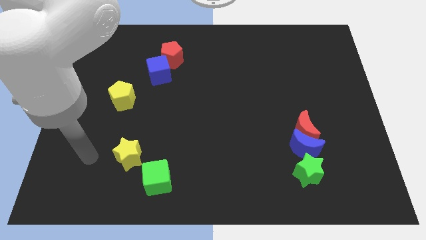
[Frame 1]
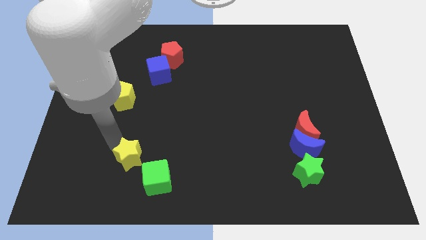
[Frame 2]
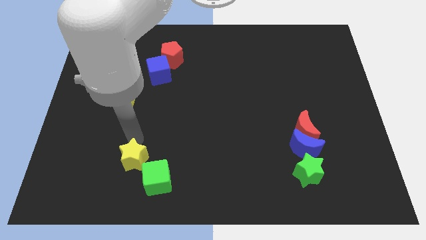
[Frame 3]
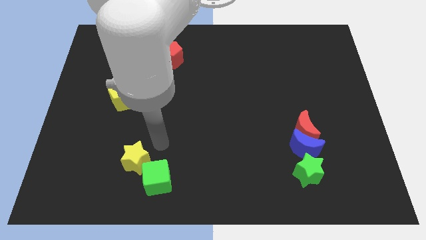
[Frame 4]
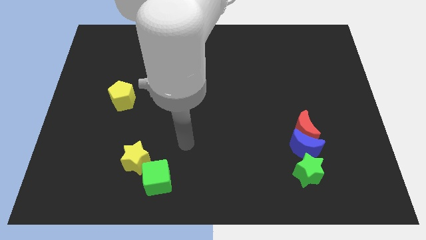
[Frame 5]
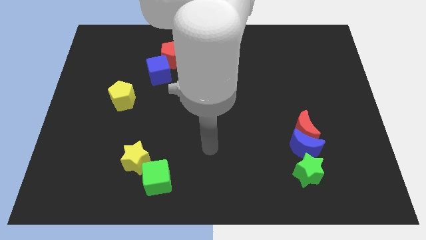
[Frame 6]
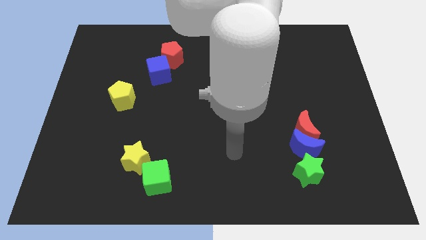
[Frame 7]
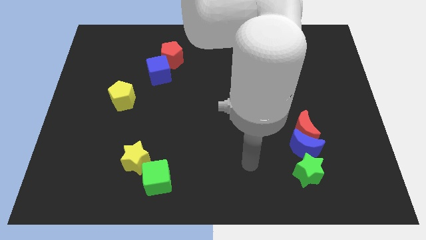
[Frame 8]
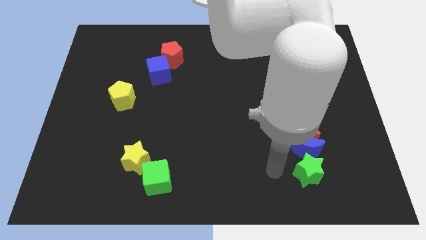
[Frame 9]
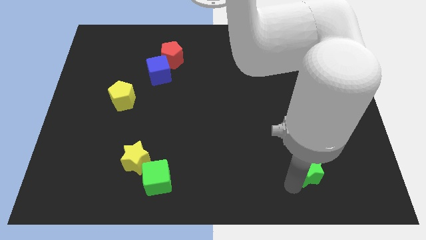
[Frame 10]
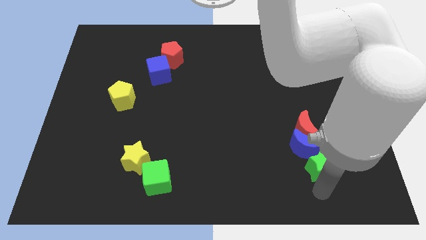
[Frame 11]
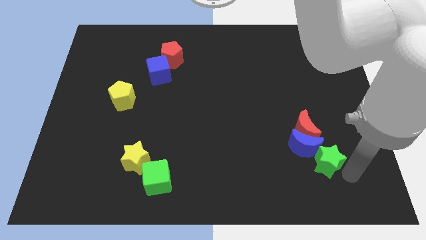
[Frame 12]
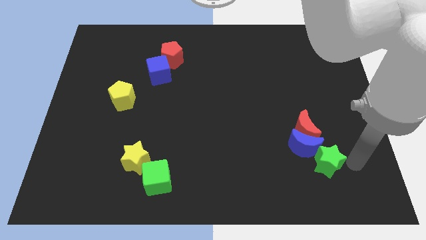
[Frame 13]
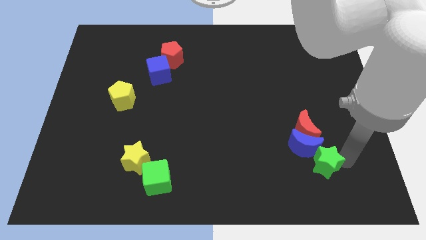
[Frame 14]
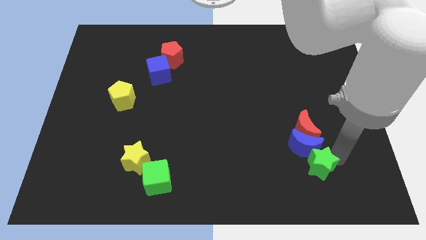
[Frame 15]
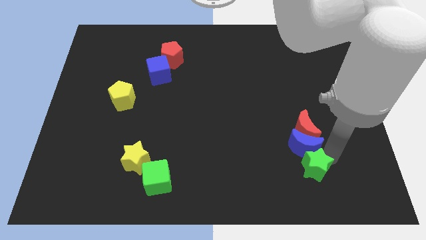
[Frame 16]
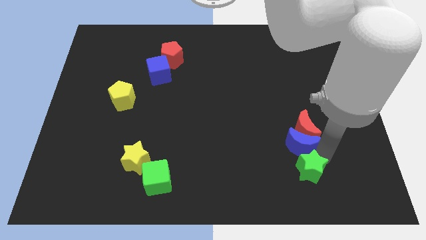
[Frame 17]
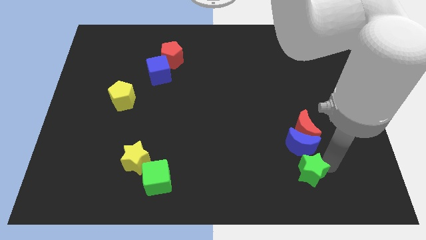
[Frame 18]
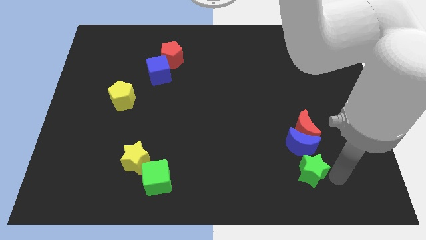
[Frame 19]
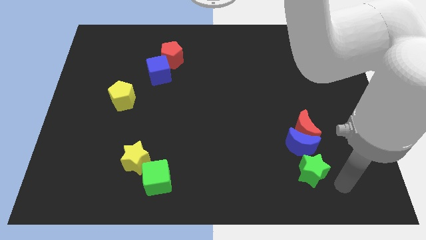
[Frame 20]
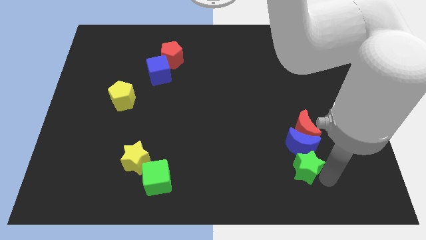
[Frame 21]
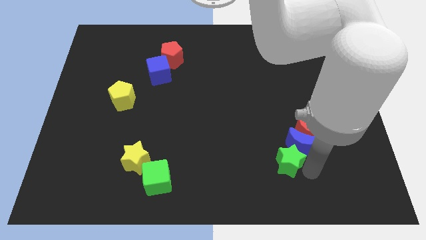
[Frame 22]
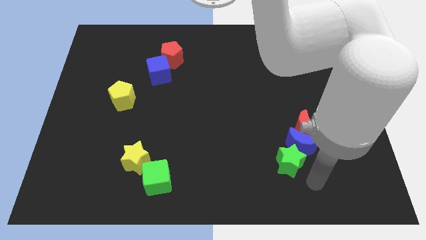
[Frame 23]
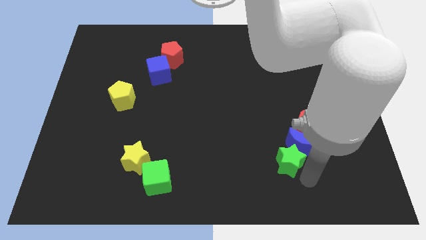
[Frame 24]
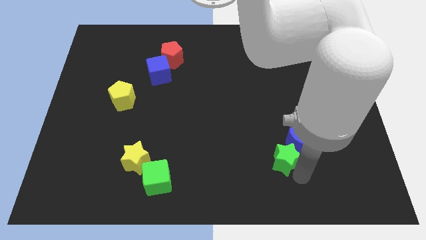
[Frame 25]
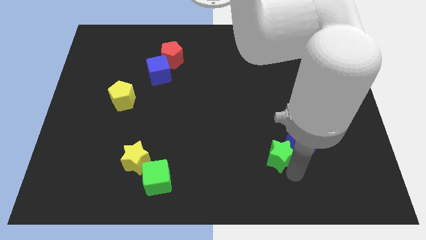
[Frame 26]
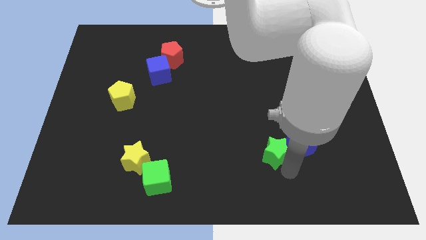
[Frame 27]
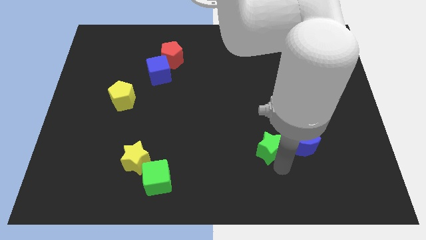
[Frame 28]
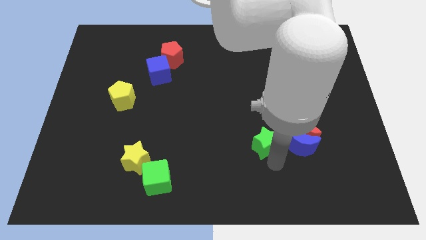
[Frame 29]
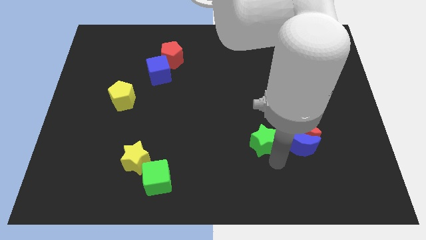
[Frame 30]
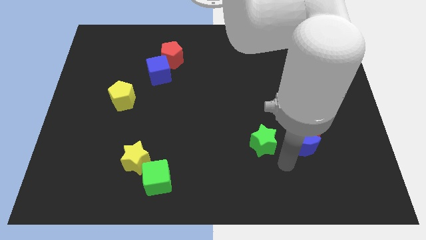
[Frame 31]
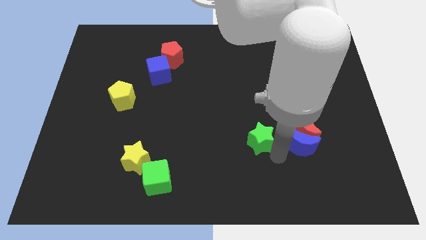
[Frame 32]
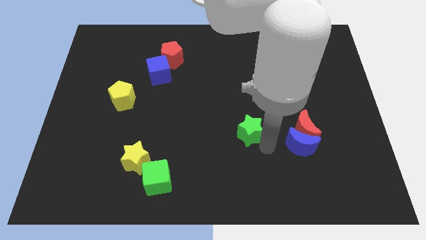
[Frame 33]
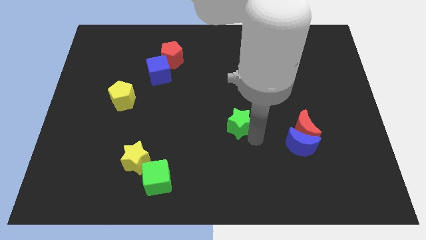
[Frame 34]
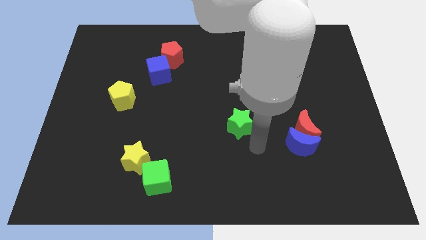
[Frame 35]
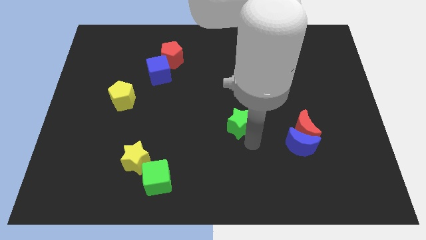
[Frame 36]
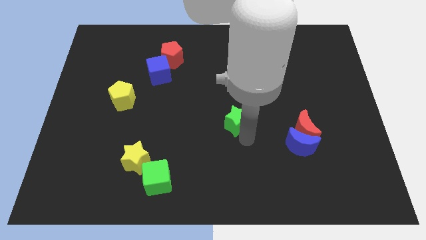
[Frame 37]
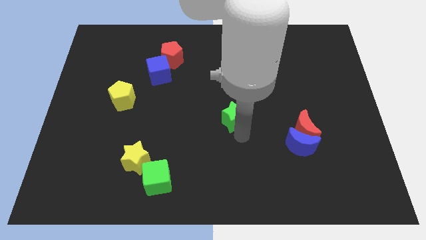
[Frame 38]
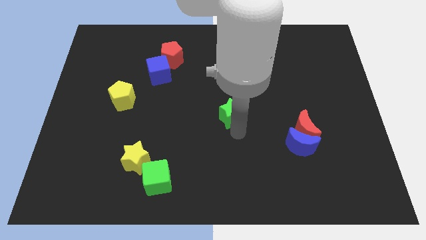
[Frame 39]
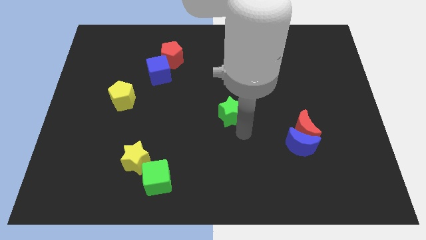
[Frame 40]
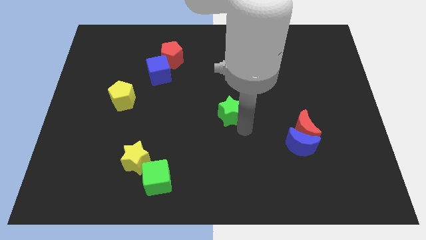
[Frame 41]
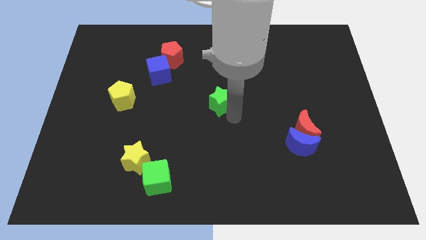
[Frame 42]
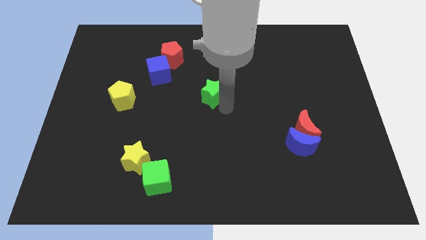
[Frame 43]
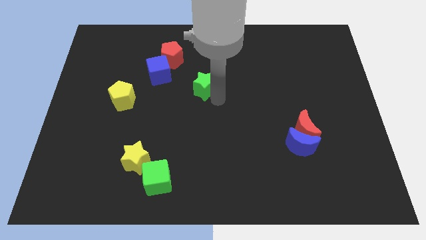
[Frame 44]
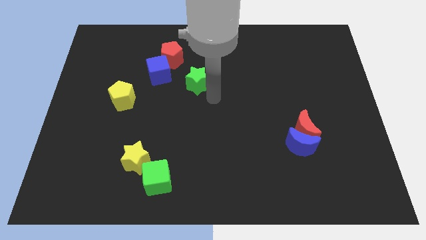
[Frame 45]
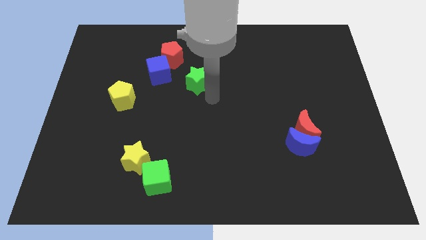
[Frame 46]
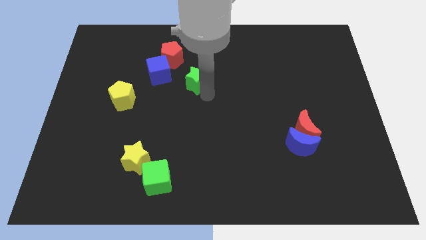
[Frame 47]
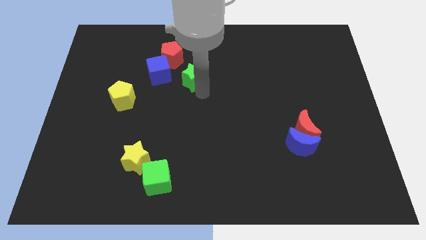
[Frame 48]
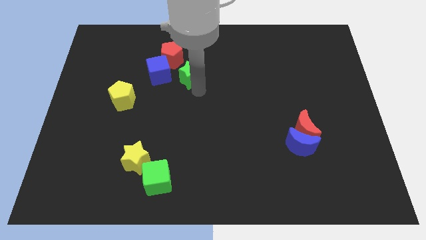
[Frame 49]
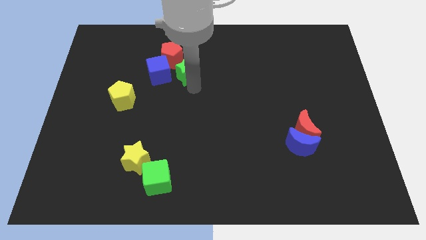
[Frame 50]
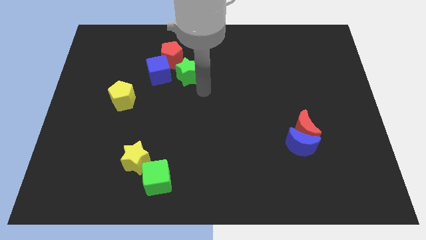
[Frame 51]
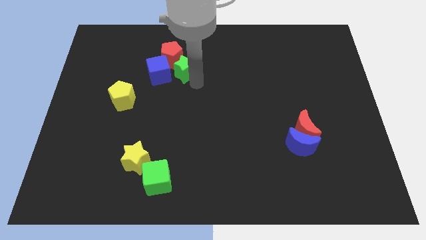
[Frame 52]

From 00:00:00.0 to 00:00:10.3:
move the green star towards the red pentagon

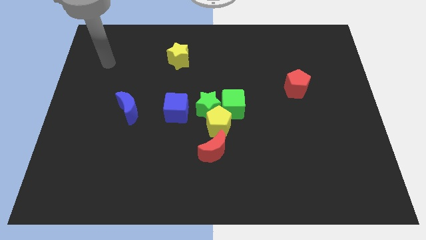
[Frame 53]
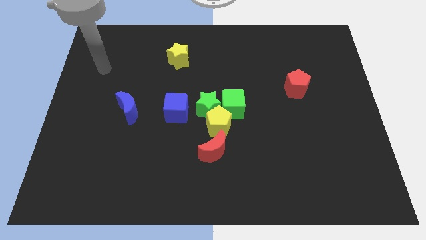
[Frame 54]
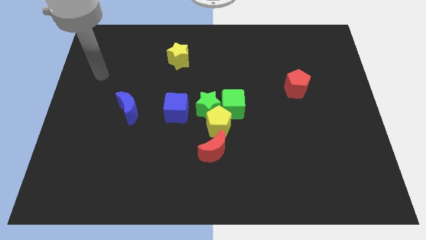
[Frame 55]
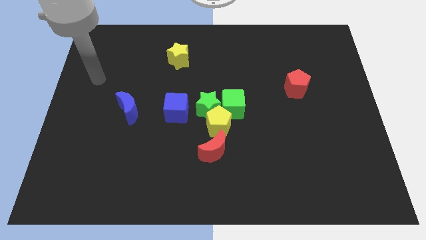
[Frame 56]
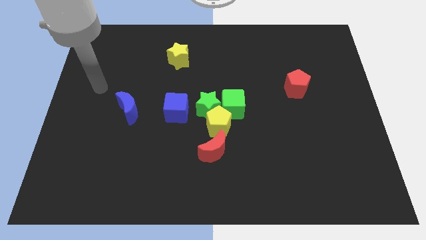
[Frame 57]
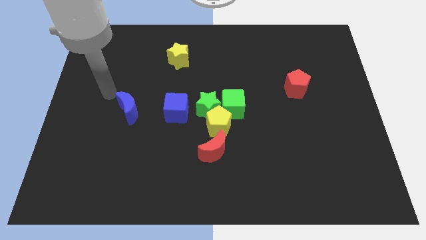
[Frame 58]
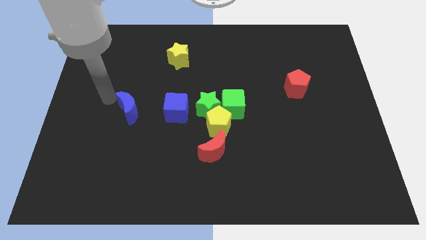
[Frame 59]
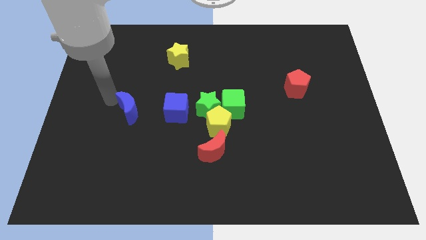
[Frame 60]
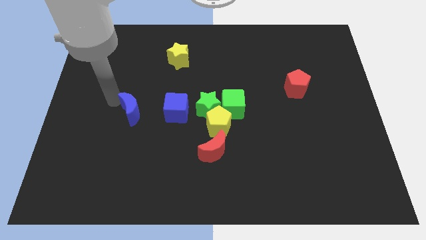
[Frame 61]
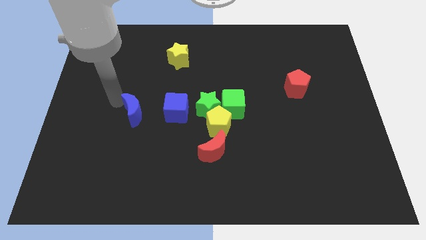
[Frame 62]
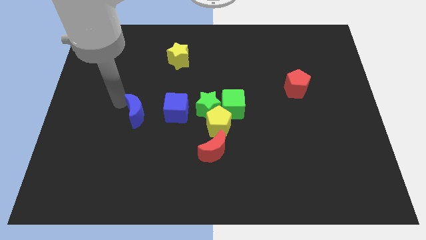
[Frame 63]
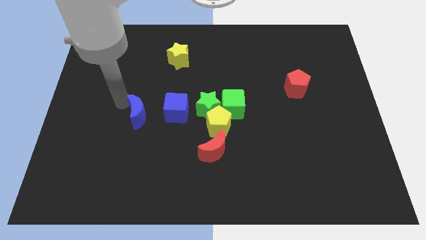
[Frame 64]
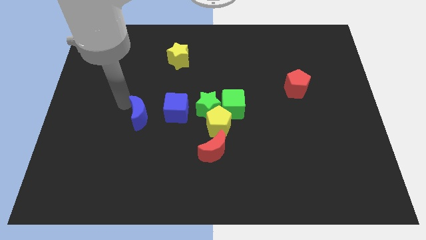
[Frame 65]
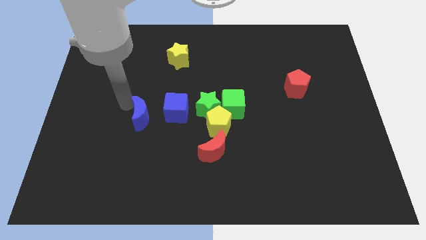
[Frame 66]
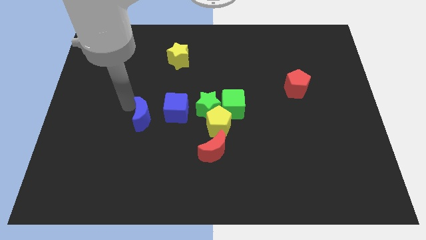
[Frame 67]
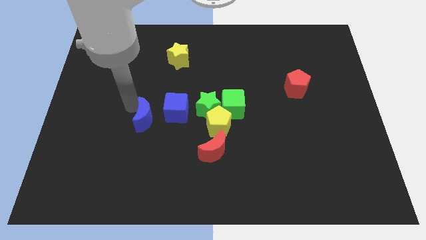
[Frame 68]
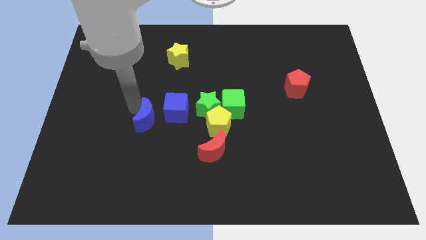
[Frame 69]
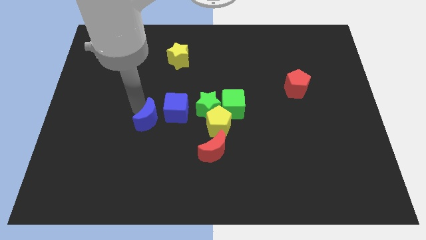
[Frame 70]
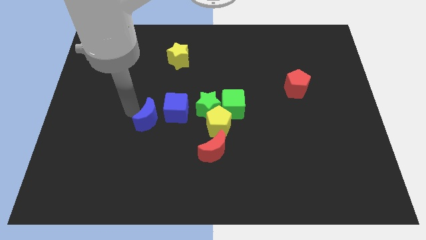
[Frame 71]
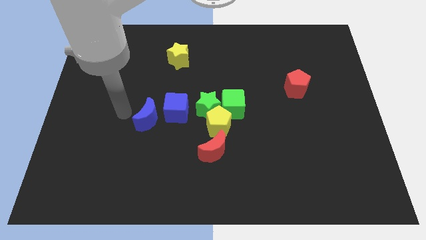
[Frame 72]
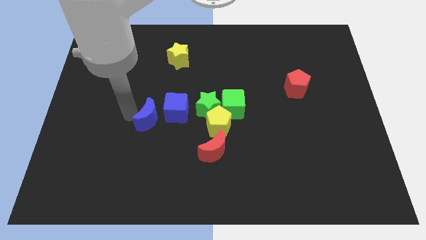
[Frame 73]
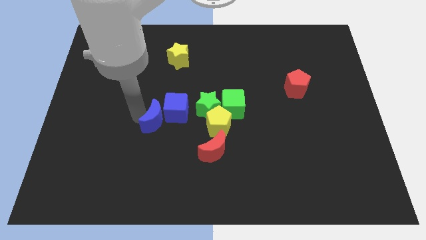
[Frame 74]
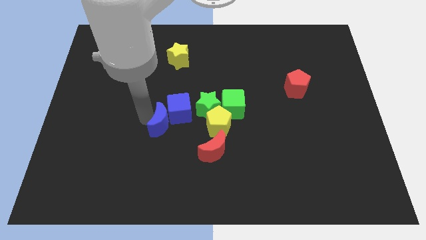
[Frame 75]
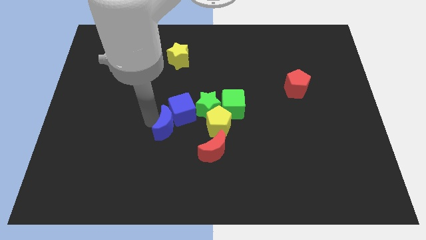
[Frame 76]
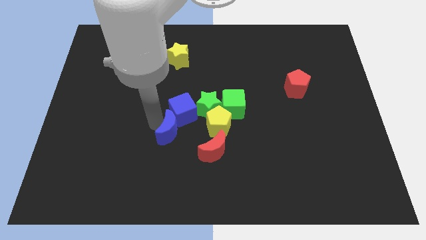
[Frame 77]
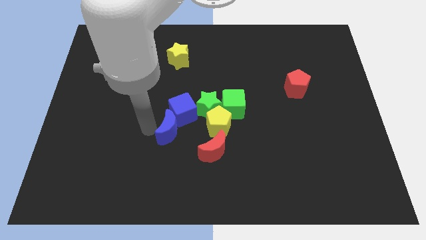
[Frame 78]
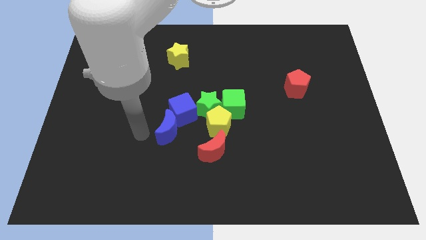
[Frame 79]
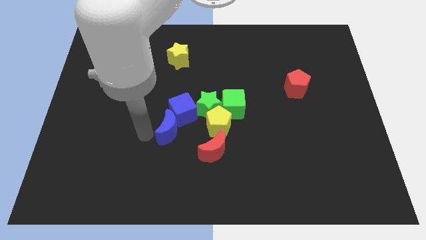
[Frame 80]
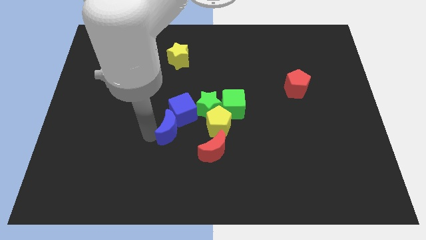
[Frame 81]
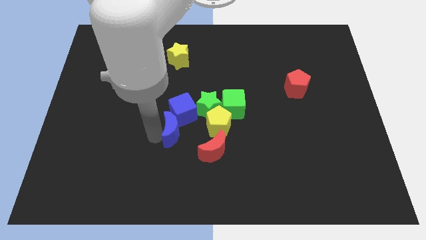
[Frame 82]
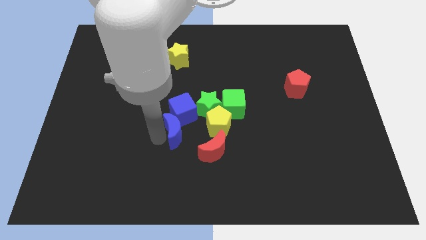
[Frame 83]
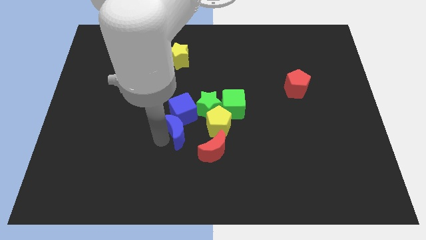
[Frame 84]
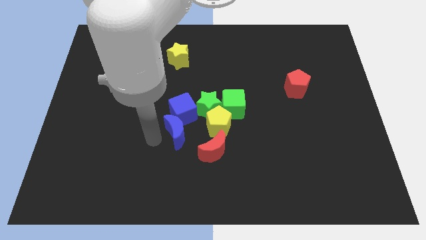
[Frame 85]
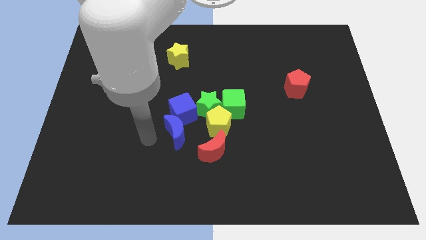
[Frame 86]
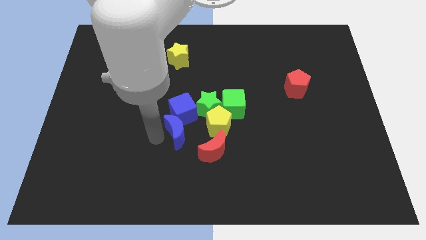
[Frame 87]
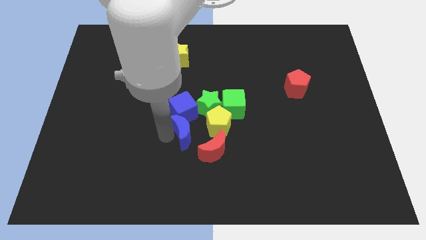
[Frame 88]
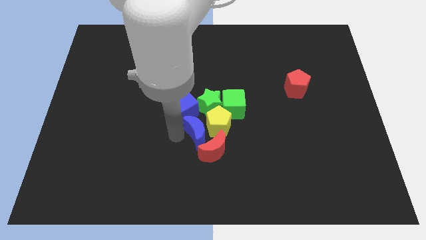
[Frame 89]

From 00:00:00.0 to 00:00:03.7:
slide the blue moon towards the yellow pentagon
